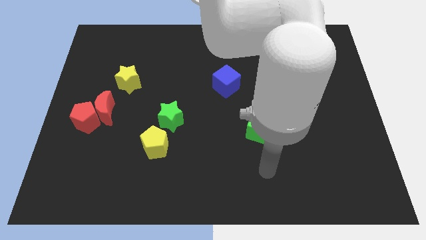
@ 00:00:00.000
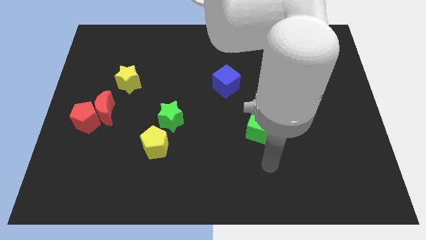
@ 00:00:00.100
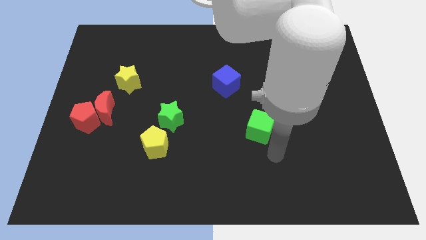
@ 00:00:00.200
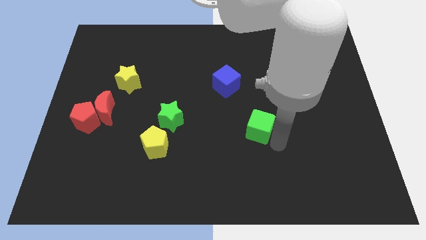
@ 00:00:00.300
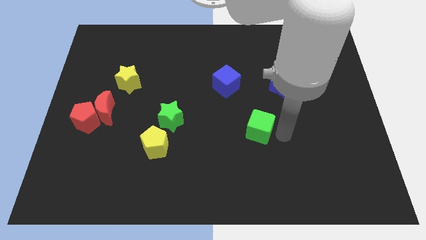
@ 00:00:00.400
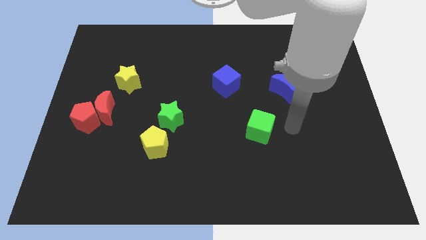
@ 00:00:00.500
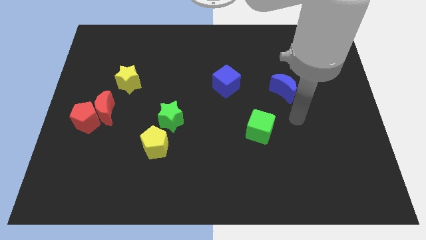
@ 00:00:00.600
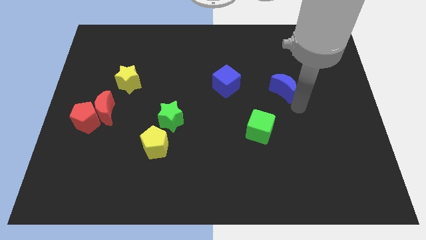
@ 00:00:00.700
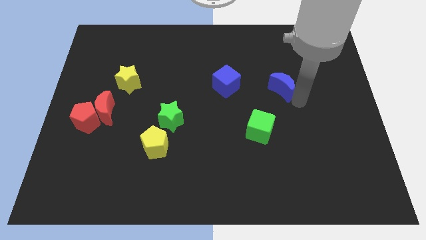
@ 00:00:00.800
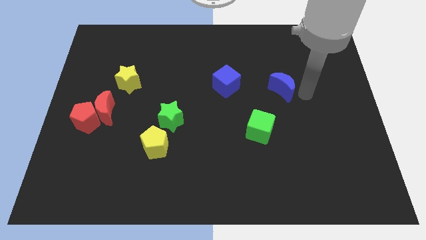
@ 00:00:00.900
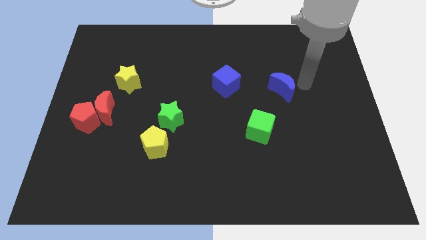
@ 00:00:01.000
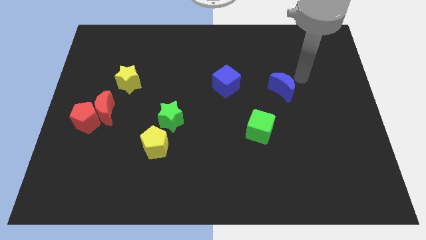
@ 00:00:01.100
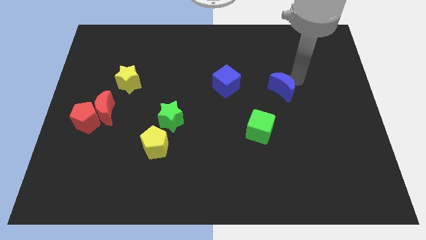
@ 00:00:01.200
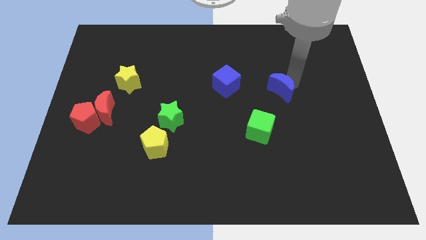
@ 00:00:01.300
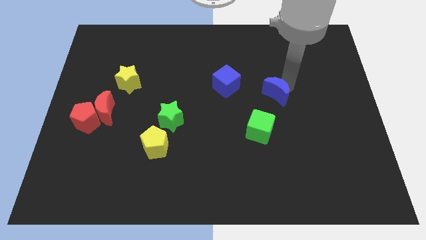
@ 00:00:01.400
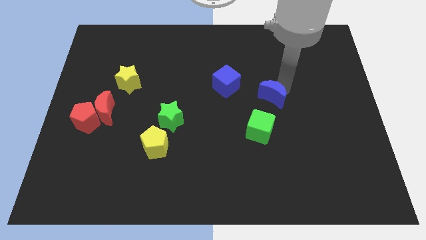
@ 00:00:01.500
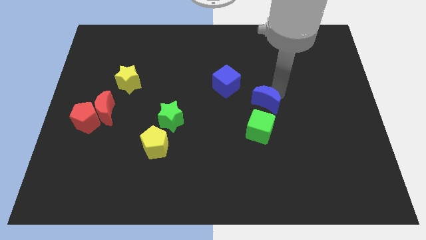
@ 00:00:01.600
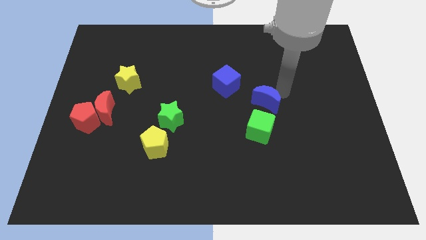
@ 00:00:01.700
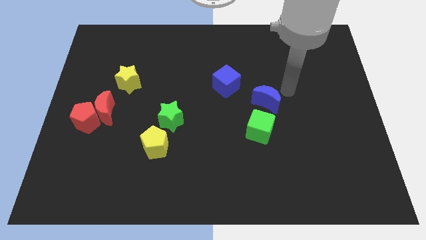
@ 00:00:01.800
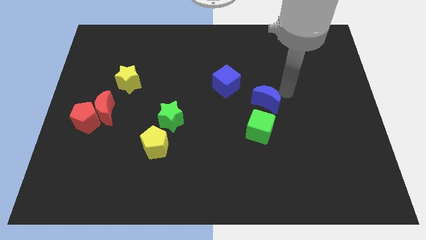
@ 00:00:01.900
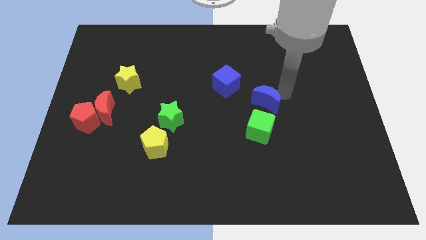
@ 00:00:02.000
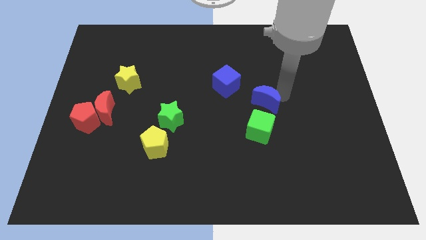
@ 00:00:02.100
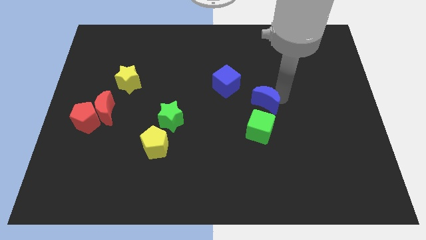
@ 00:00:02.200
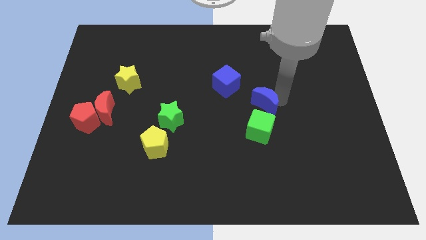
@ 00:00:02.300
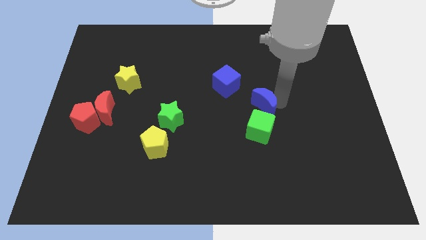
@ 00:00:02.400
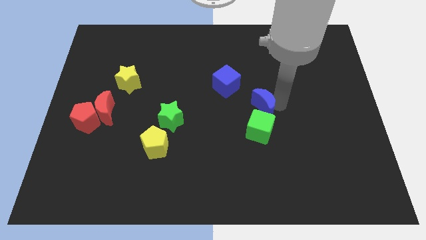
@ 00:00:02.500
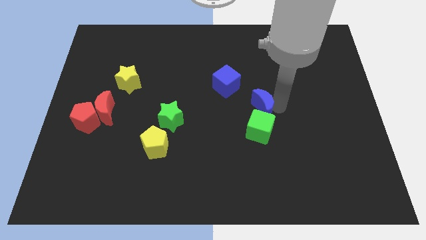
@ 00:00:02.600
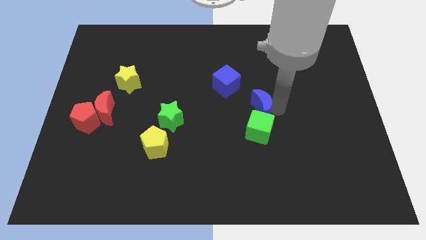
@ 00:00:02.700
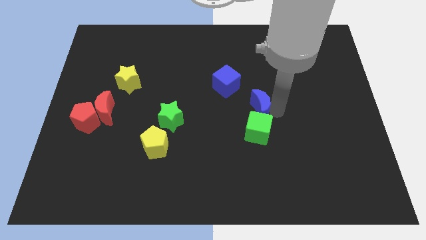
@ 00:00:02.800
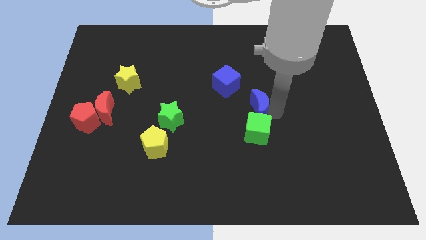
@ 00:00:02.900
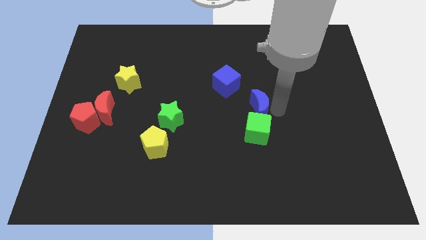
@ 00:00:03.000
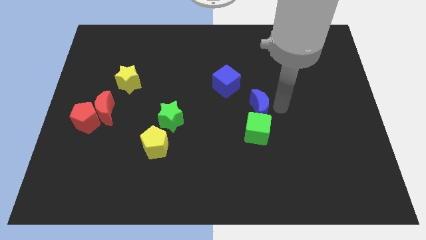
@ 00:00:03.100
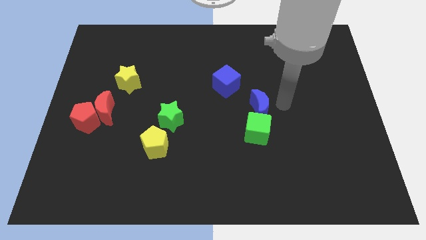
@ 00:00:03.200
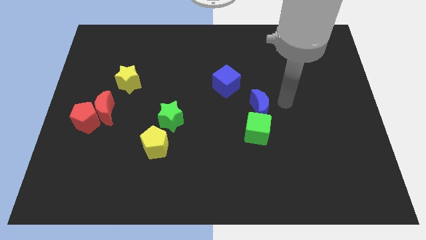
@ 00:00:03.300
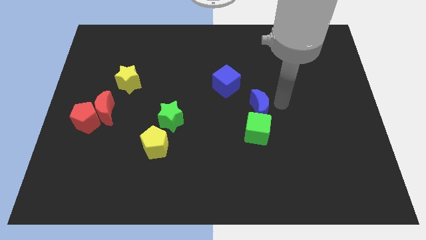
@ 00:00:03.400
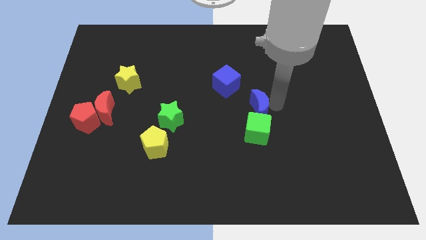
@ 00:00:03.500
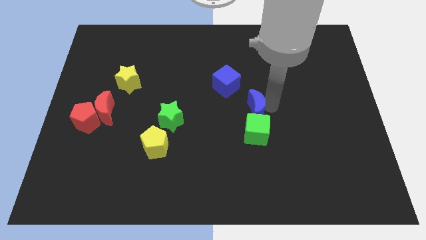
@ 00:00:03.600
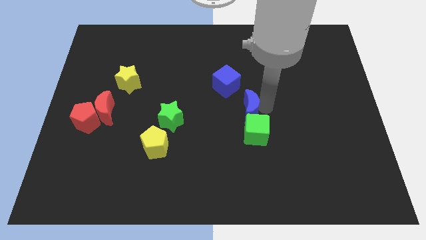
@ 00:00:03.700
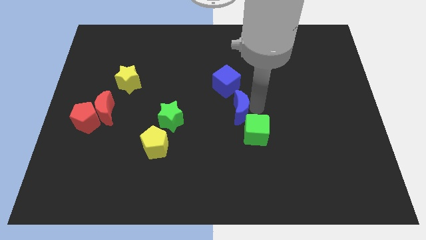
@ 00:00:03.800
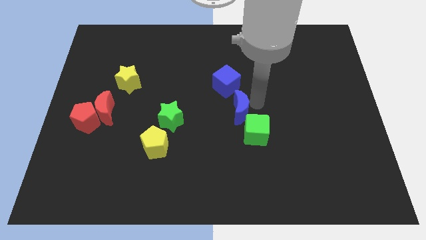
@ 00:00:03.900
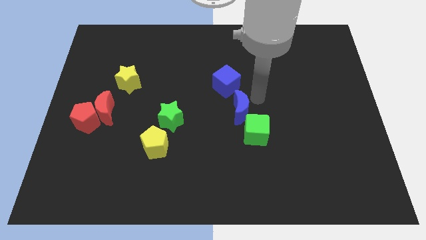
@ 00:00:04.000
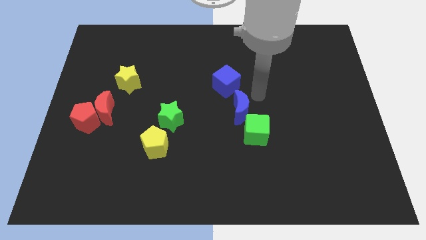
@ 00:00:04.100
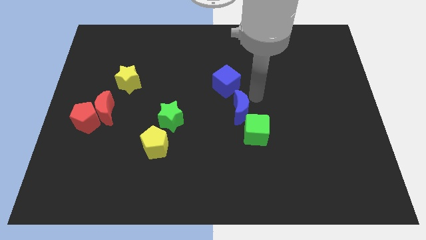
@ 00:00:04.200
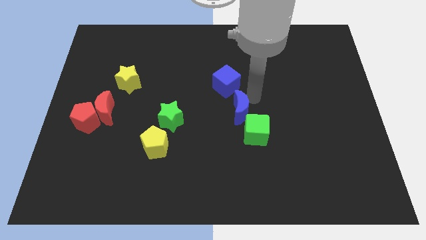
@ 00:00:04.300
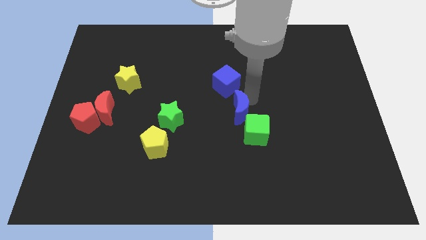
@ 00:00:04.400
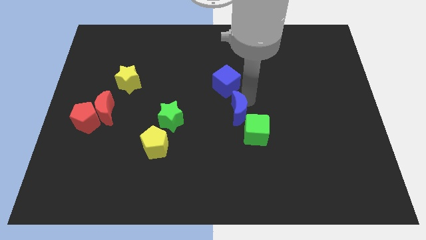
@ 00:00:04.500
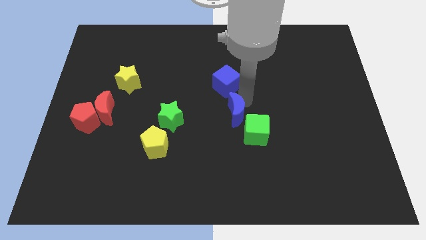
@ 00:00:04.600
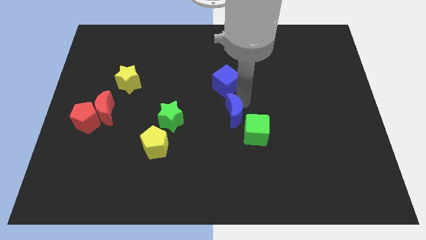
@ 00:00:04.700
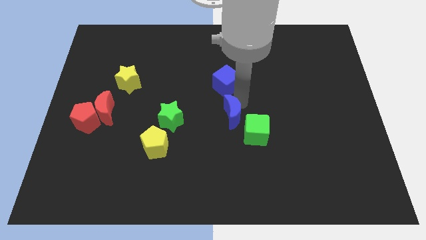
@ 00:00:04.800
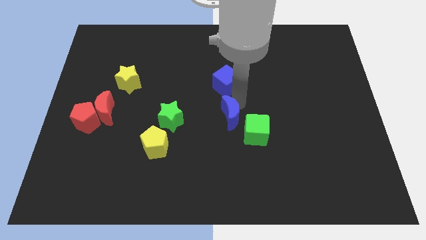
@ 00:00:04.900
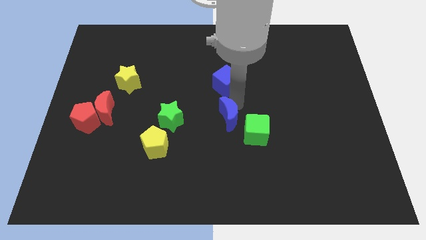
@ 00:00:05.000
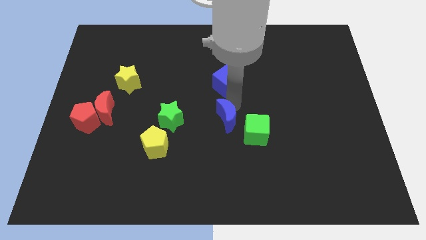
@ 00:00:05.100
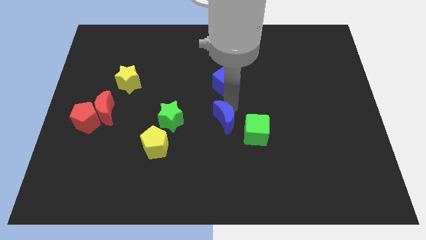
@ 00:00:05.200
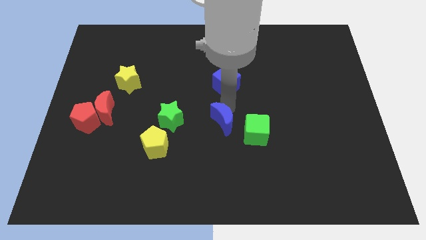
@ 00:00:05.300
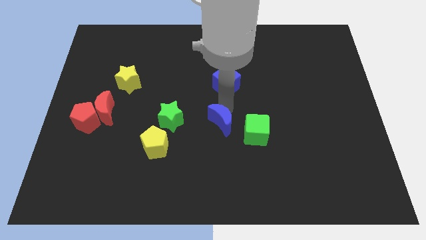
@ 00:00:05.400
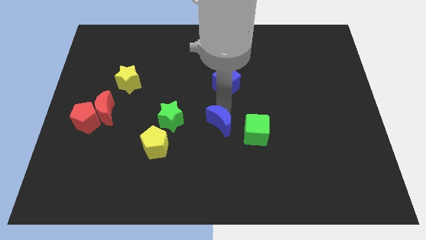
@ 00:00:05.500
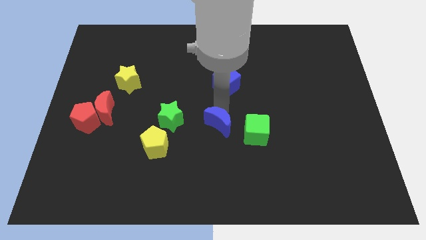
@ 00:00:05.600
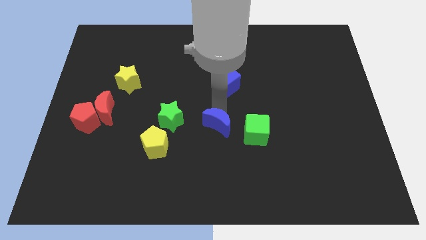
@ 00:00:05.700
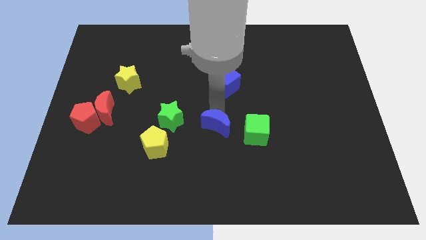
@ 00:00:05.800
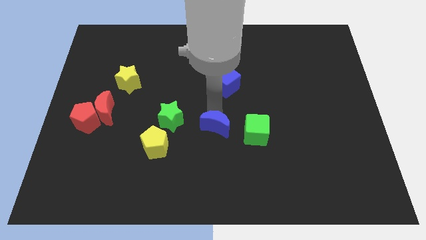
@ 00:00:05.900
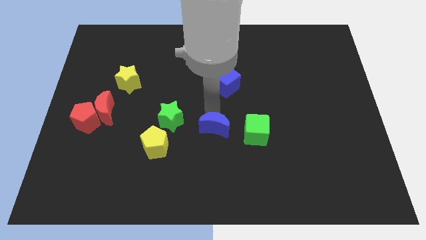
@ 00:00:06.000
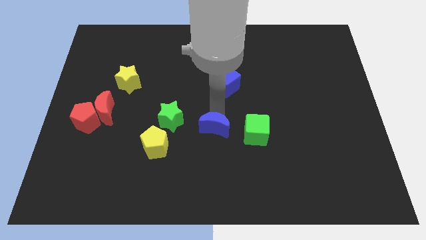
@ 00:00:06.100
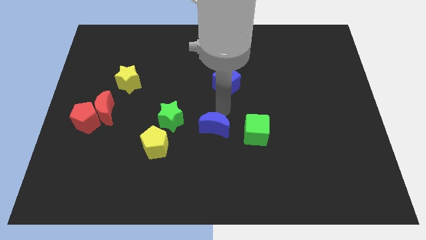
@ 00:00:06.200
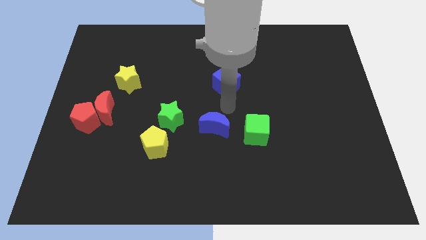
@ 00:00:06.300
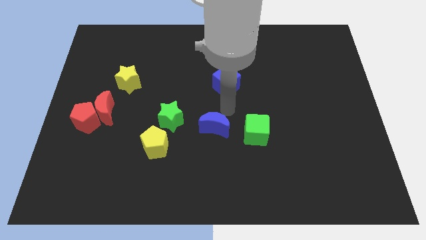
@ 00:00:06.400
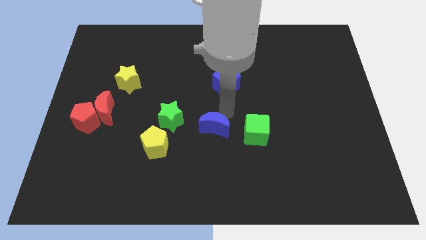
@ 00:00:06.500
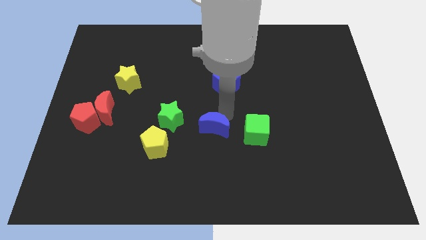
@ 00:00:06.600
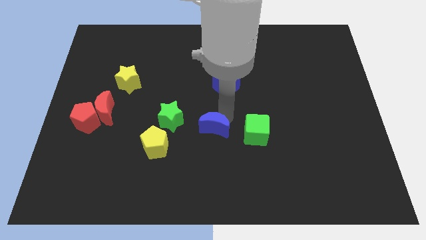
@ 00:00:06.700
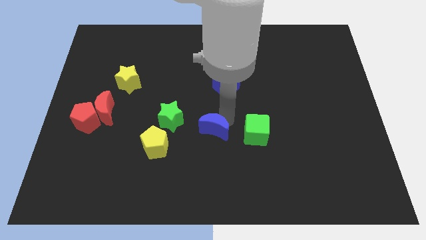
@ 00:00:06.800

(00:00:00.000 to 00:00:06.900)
slide the blue moon to the right side of the yellow pentagon

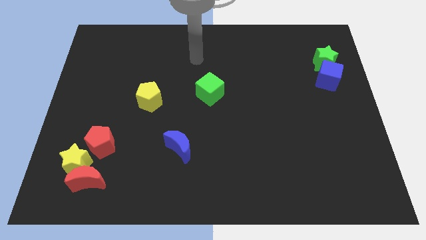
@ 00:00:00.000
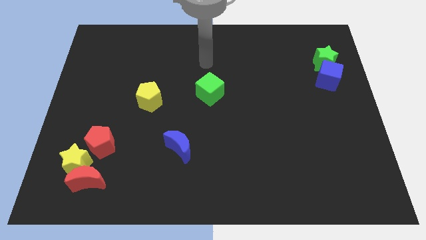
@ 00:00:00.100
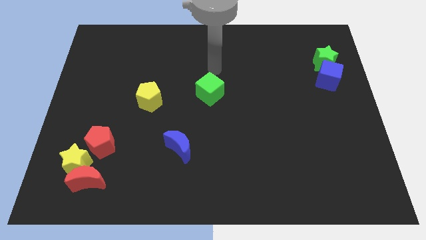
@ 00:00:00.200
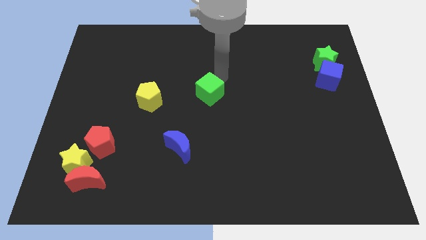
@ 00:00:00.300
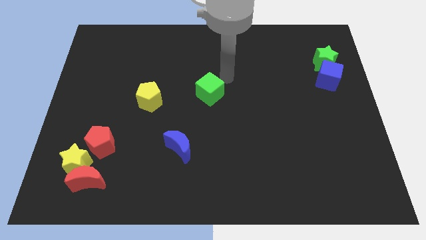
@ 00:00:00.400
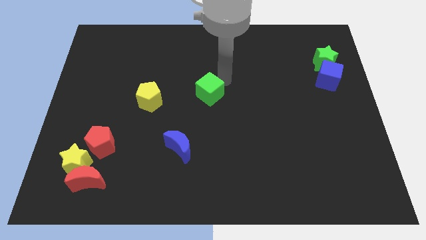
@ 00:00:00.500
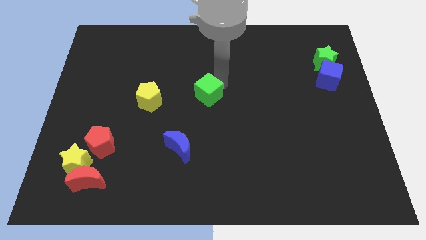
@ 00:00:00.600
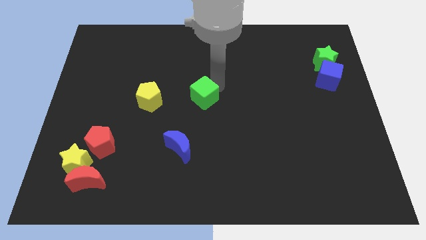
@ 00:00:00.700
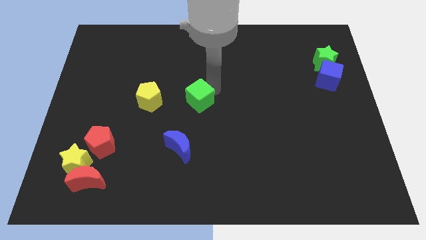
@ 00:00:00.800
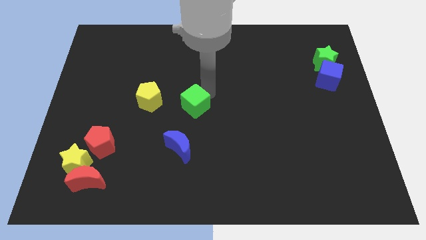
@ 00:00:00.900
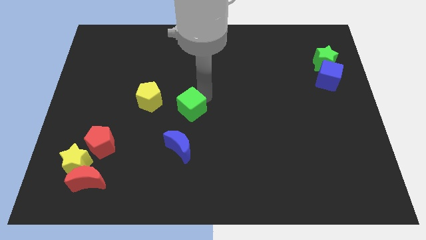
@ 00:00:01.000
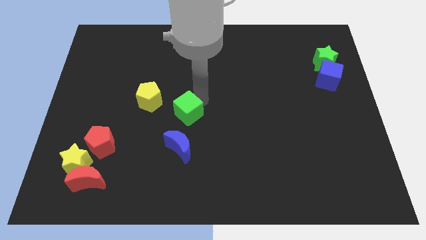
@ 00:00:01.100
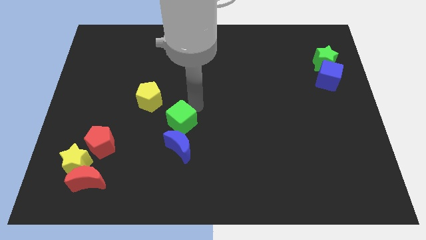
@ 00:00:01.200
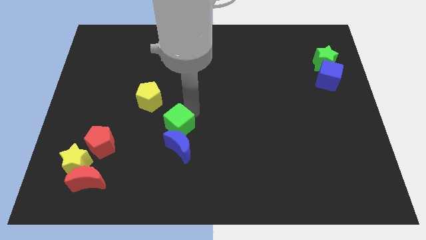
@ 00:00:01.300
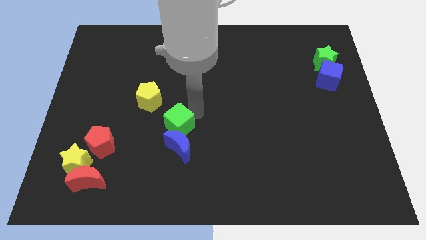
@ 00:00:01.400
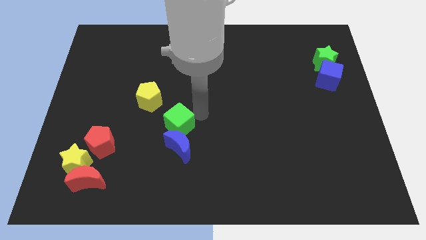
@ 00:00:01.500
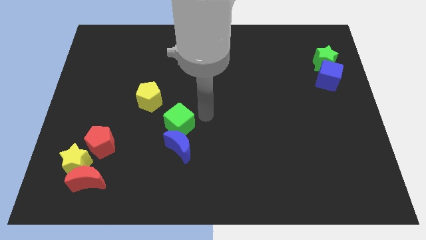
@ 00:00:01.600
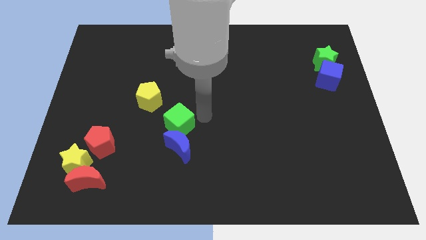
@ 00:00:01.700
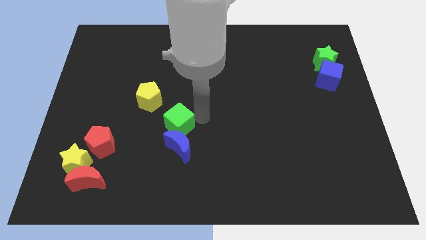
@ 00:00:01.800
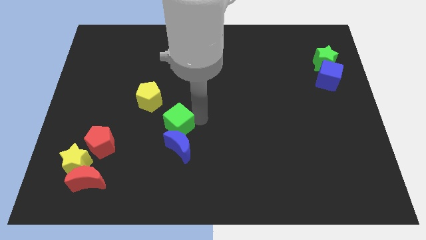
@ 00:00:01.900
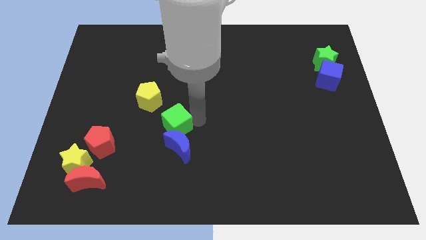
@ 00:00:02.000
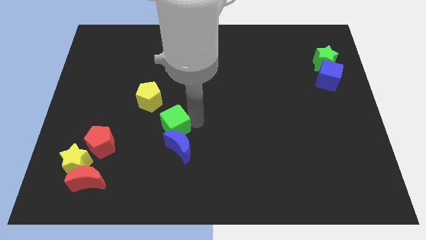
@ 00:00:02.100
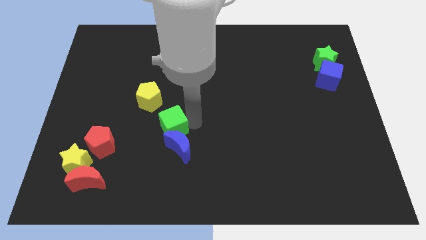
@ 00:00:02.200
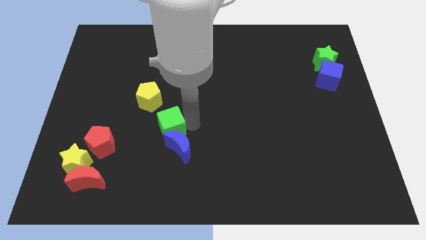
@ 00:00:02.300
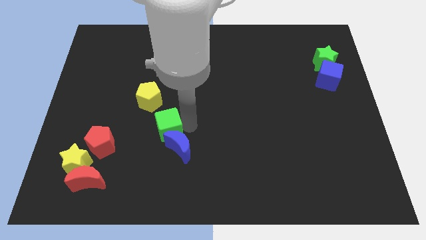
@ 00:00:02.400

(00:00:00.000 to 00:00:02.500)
push the green cube to the bottom of the yellow pentagon
